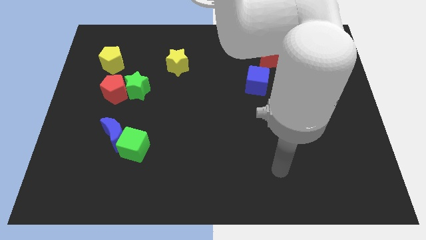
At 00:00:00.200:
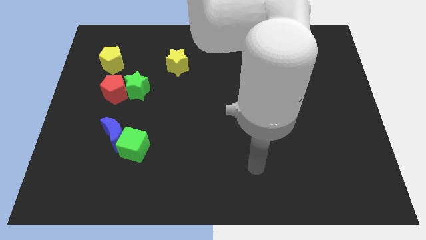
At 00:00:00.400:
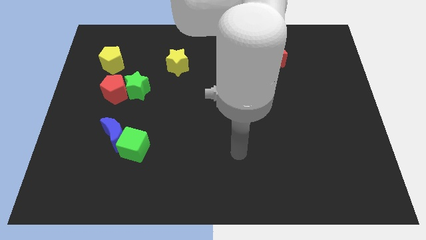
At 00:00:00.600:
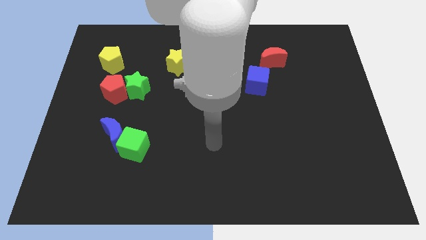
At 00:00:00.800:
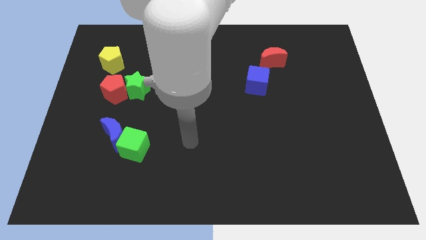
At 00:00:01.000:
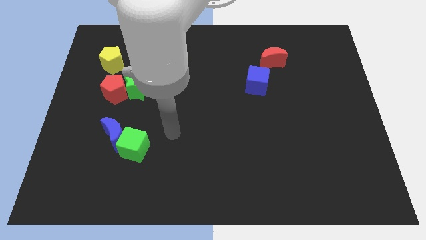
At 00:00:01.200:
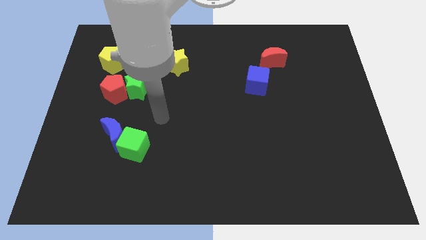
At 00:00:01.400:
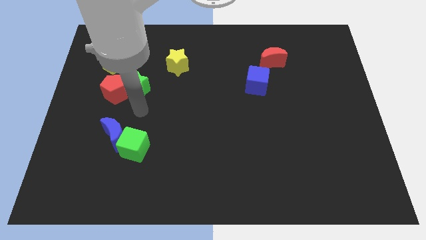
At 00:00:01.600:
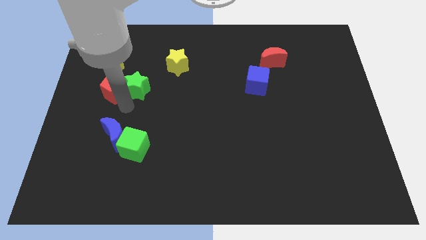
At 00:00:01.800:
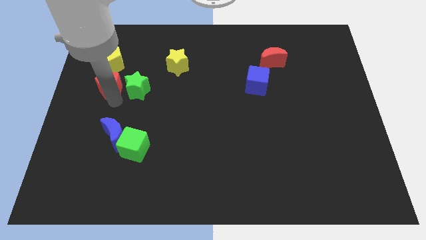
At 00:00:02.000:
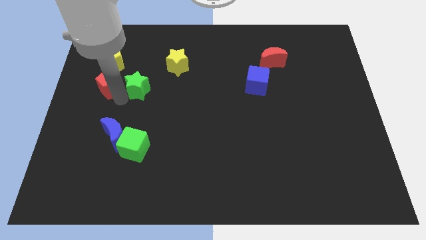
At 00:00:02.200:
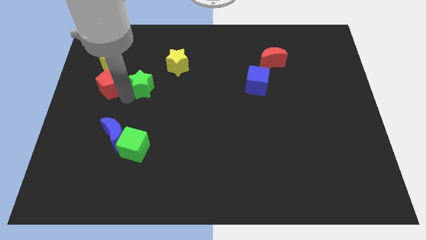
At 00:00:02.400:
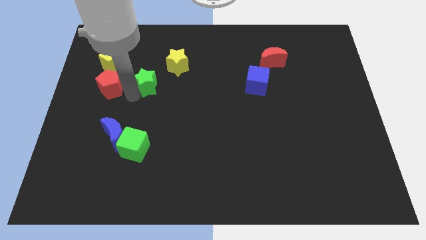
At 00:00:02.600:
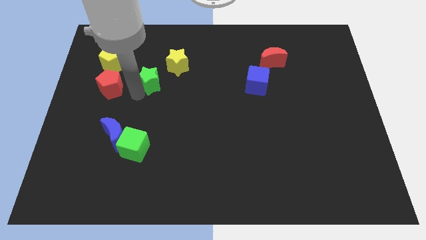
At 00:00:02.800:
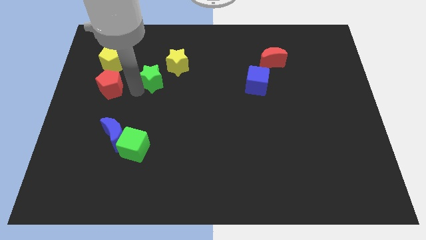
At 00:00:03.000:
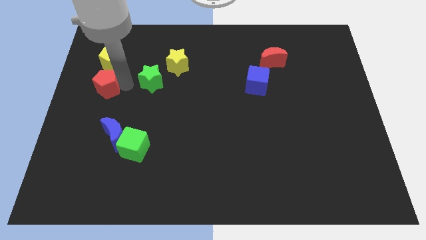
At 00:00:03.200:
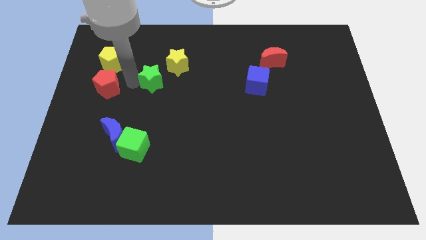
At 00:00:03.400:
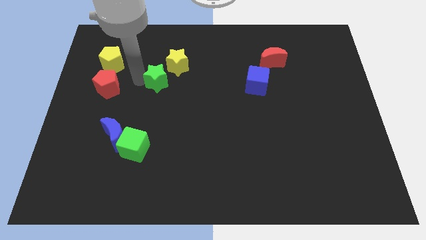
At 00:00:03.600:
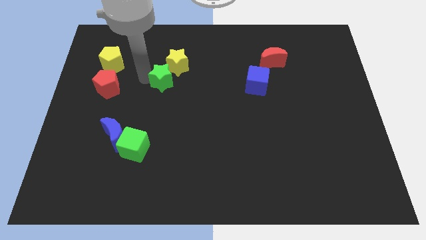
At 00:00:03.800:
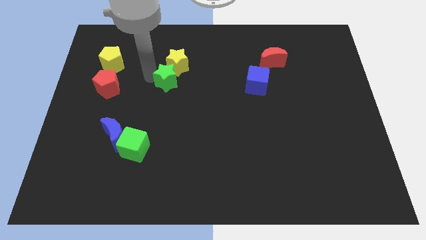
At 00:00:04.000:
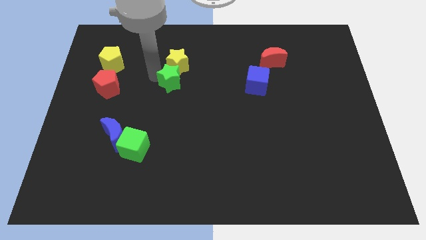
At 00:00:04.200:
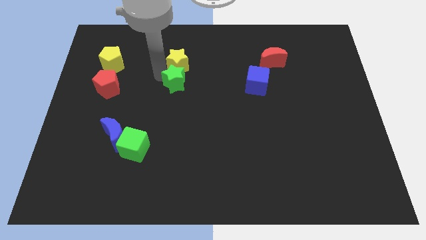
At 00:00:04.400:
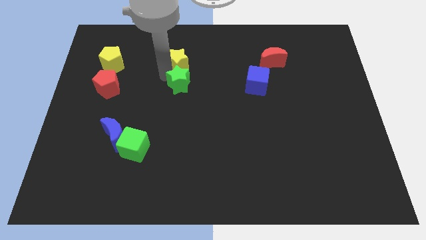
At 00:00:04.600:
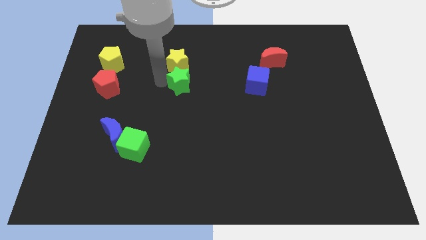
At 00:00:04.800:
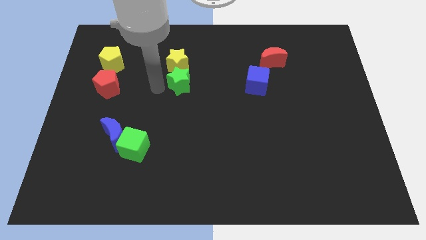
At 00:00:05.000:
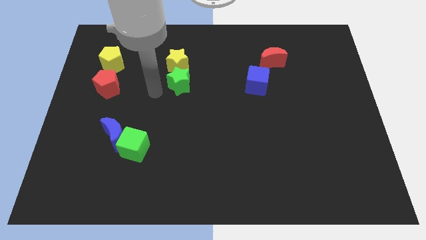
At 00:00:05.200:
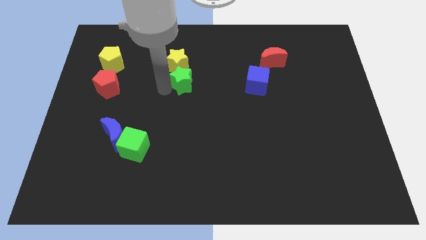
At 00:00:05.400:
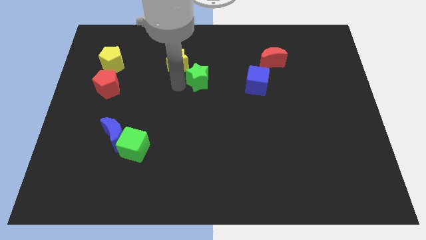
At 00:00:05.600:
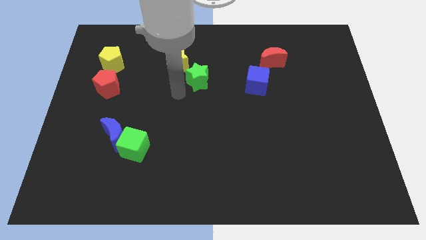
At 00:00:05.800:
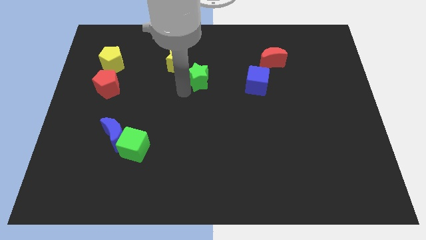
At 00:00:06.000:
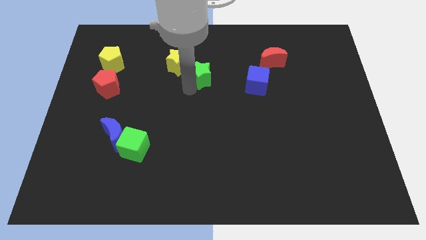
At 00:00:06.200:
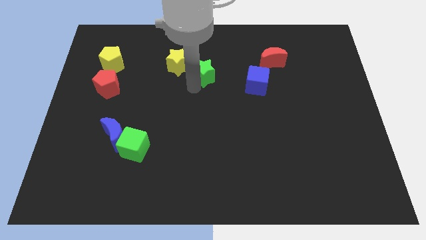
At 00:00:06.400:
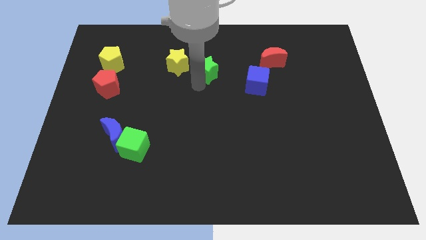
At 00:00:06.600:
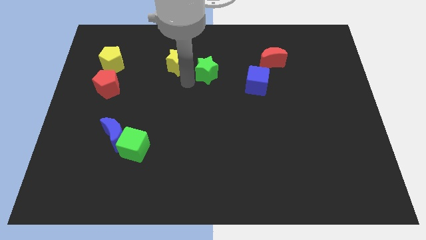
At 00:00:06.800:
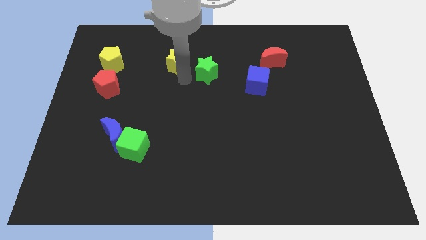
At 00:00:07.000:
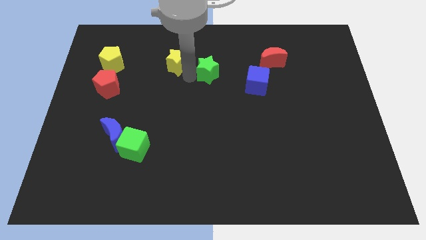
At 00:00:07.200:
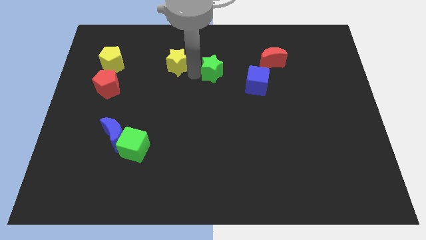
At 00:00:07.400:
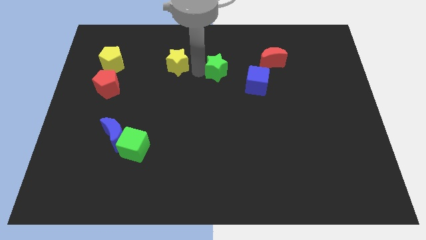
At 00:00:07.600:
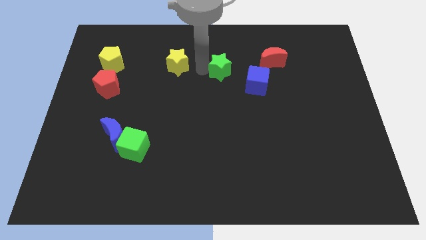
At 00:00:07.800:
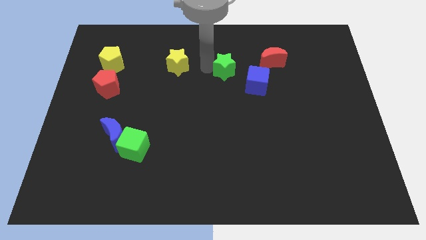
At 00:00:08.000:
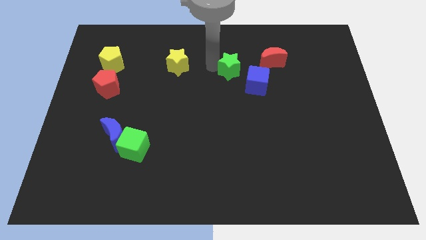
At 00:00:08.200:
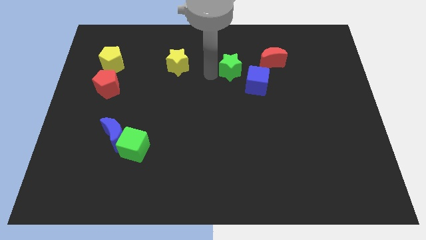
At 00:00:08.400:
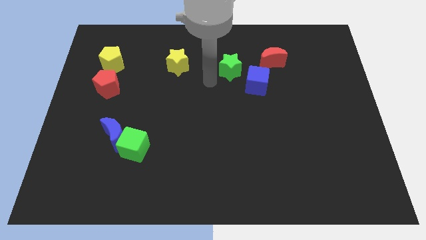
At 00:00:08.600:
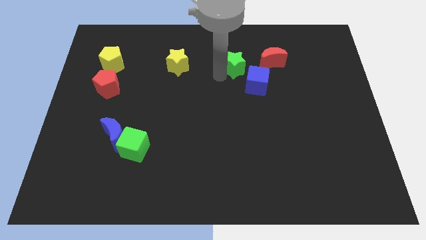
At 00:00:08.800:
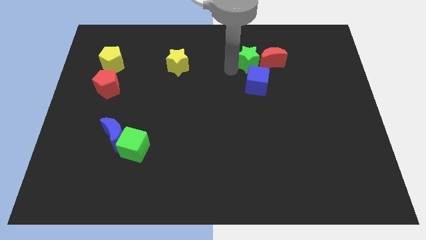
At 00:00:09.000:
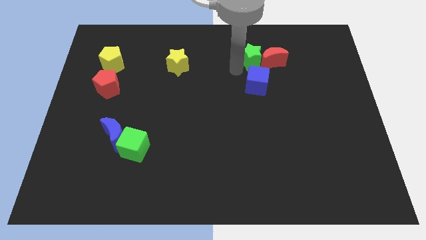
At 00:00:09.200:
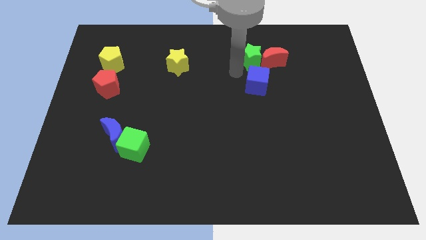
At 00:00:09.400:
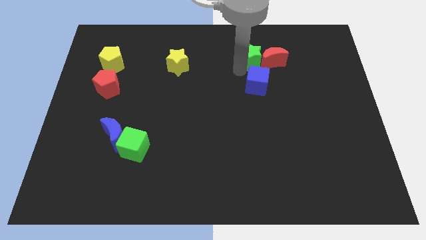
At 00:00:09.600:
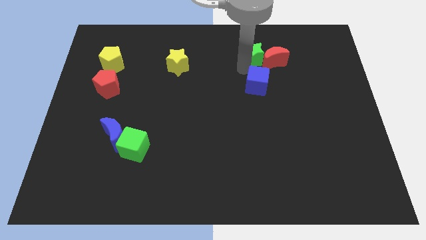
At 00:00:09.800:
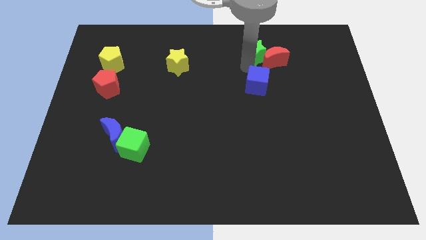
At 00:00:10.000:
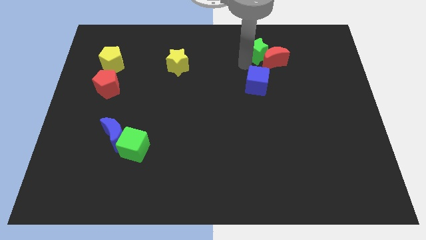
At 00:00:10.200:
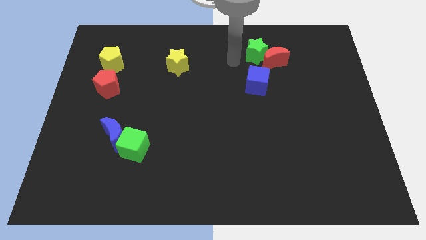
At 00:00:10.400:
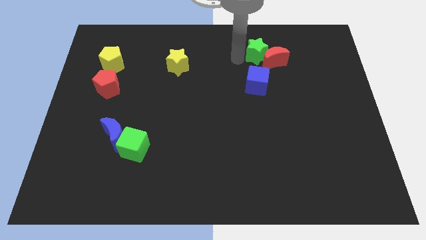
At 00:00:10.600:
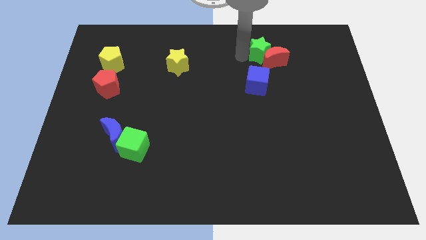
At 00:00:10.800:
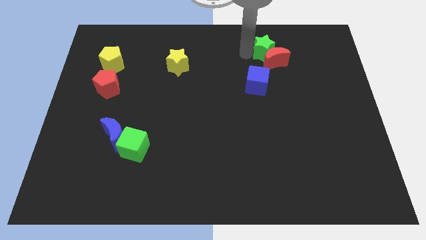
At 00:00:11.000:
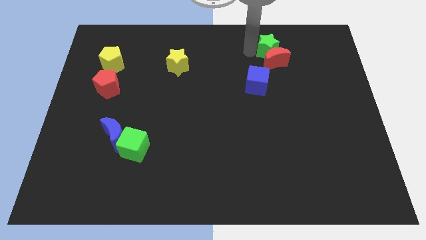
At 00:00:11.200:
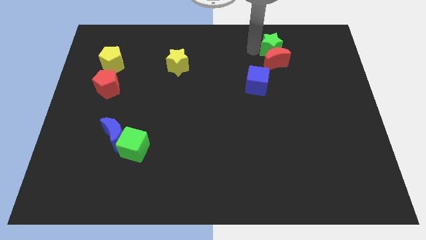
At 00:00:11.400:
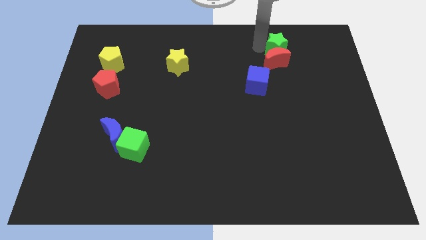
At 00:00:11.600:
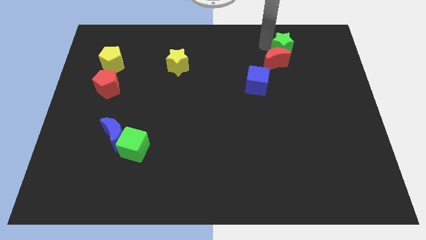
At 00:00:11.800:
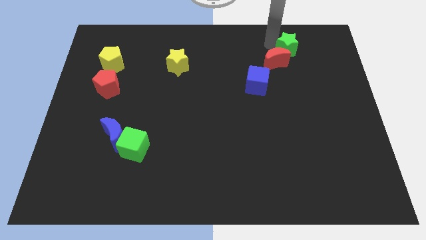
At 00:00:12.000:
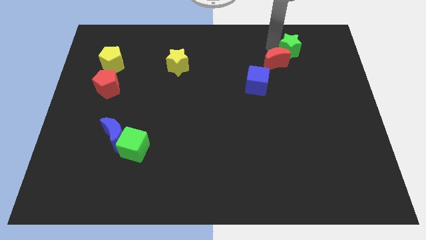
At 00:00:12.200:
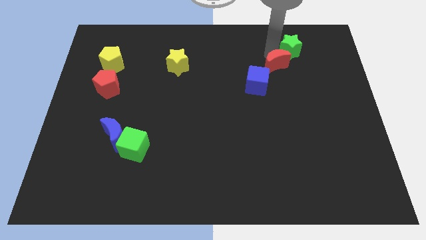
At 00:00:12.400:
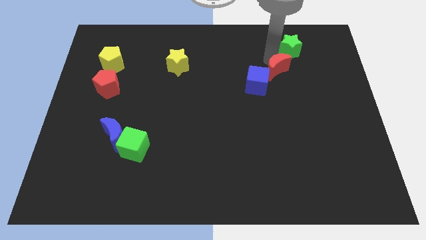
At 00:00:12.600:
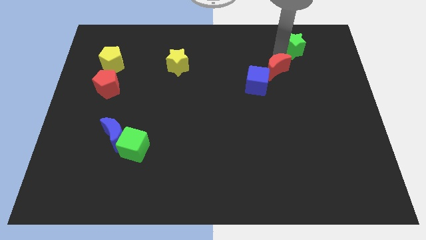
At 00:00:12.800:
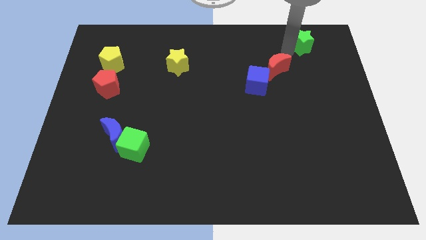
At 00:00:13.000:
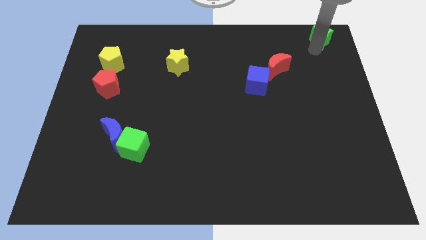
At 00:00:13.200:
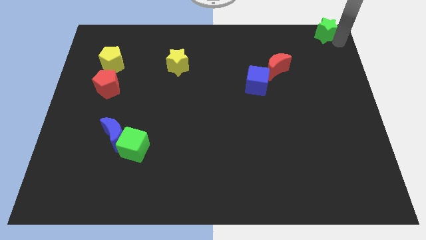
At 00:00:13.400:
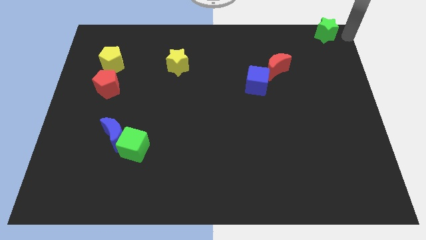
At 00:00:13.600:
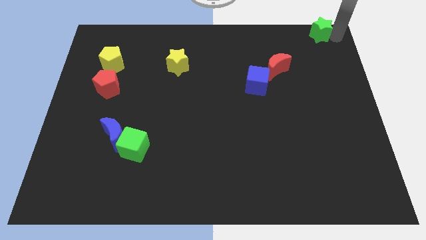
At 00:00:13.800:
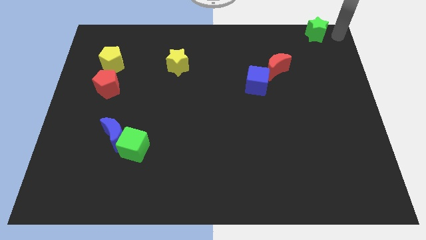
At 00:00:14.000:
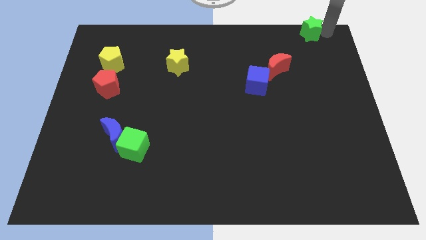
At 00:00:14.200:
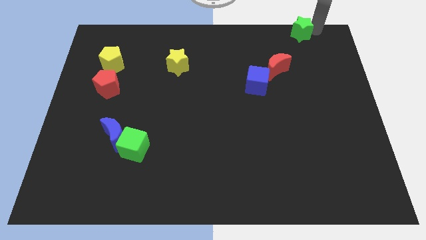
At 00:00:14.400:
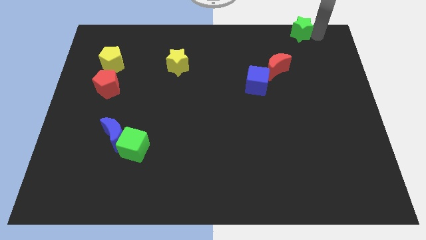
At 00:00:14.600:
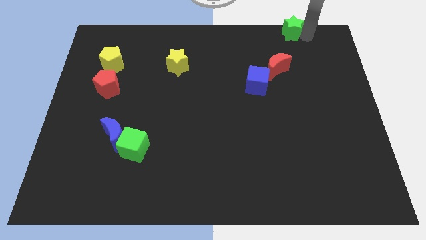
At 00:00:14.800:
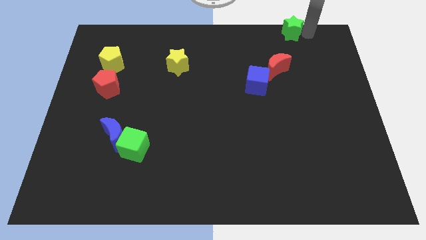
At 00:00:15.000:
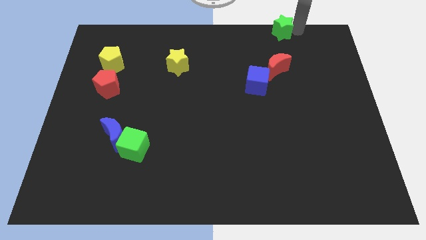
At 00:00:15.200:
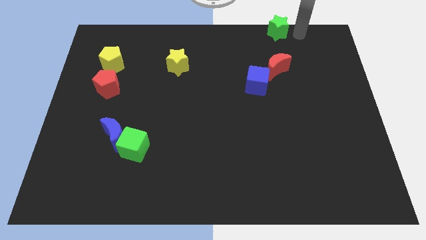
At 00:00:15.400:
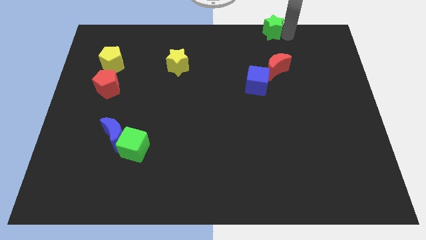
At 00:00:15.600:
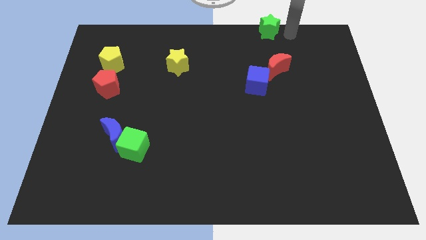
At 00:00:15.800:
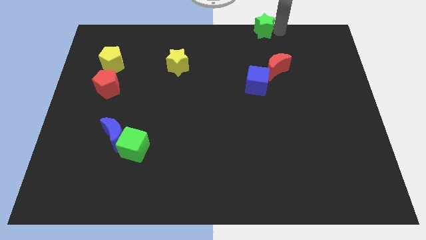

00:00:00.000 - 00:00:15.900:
push the green star to the top side
